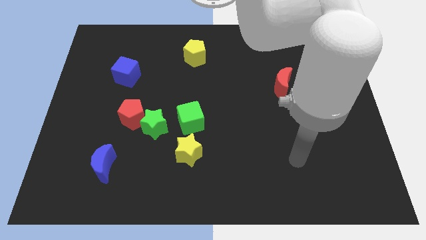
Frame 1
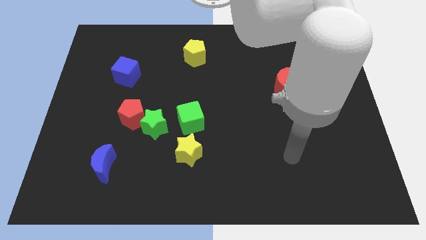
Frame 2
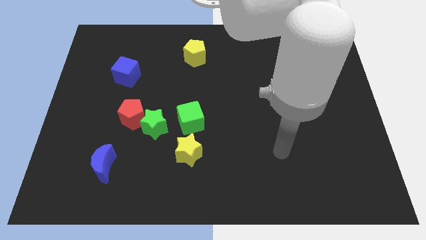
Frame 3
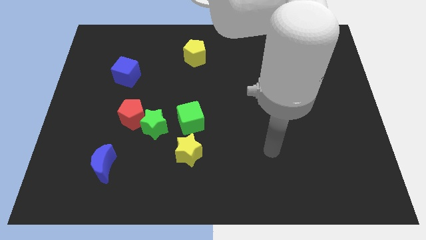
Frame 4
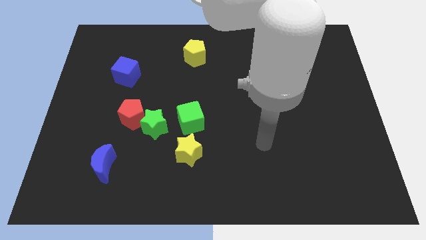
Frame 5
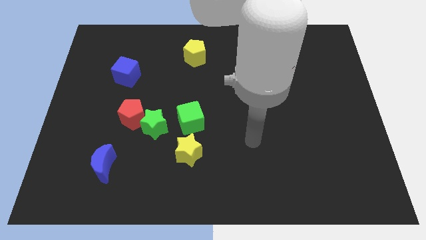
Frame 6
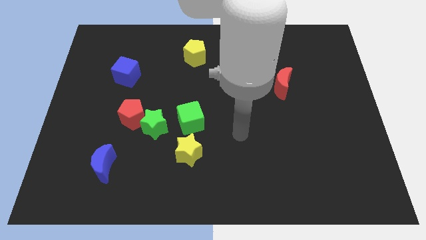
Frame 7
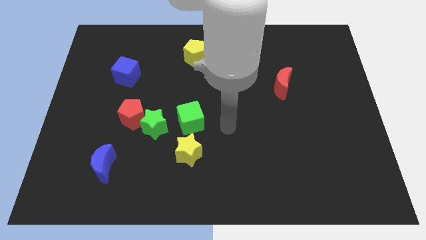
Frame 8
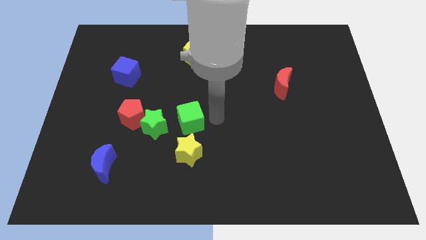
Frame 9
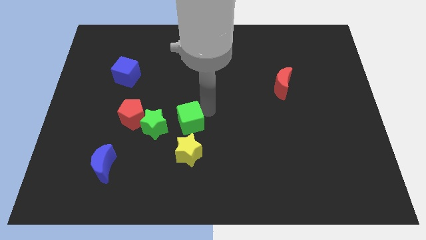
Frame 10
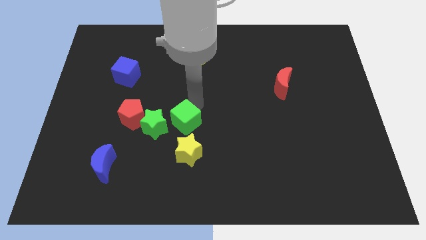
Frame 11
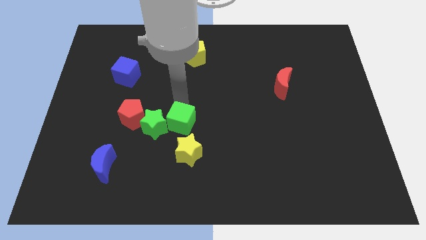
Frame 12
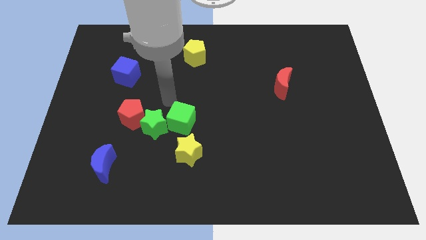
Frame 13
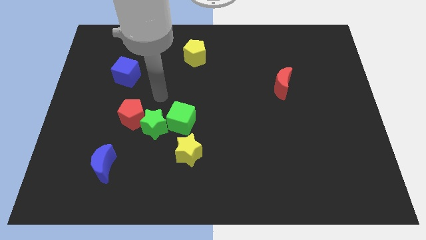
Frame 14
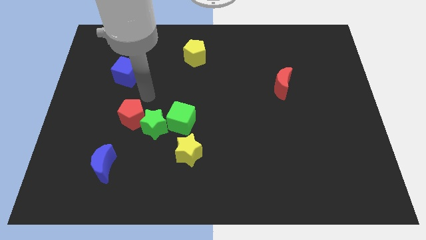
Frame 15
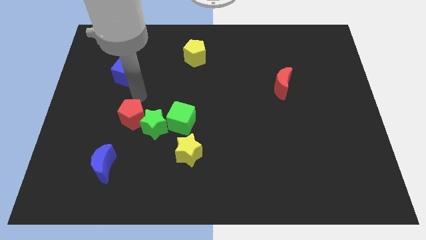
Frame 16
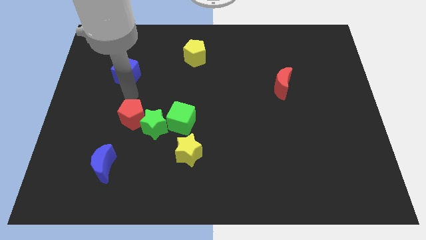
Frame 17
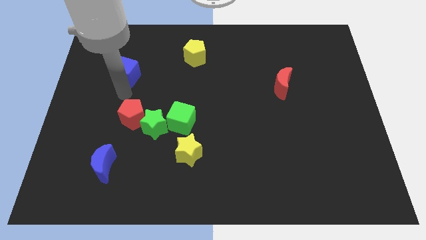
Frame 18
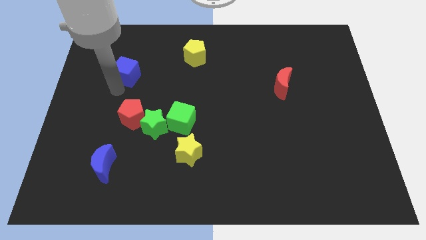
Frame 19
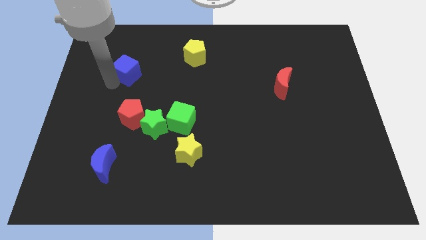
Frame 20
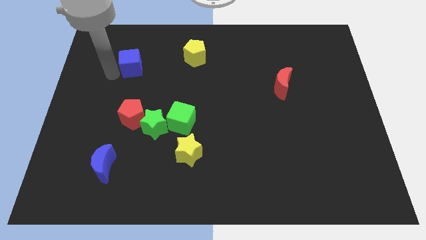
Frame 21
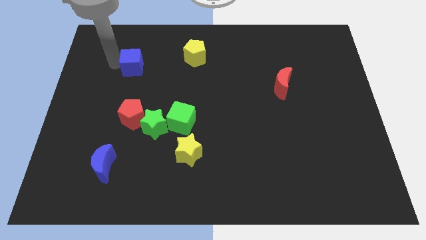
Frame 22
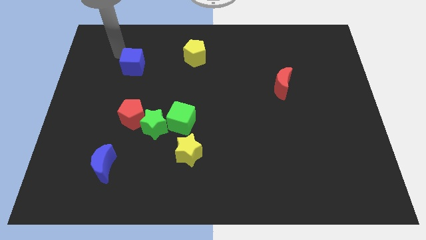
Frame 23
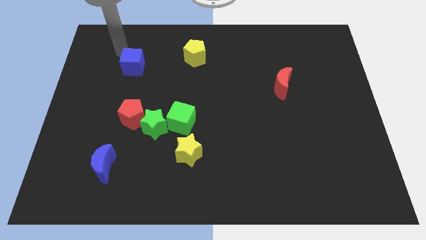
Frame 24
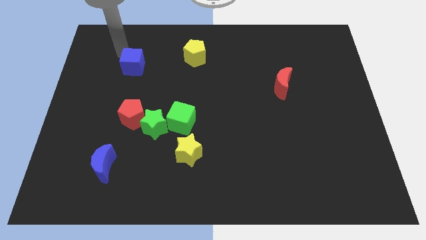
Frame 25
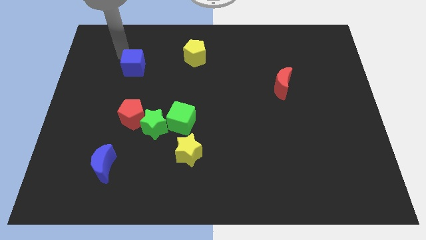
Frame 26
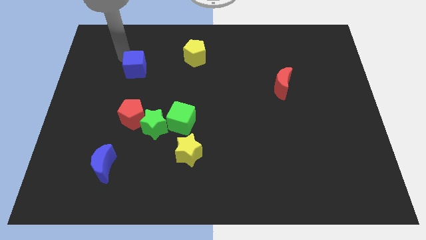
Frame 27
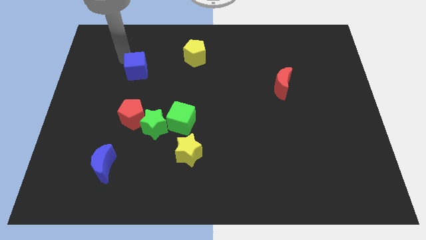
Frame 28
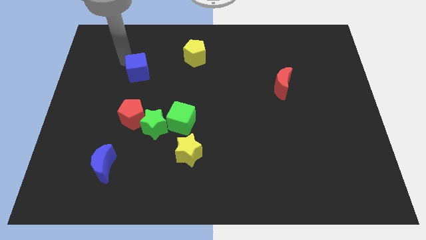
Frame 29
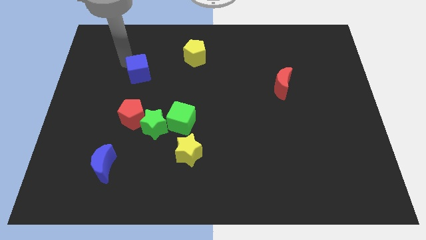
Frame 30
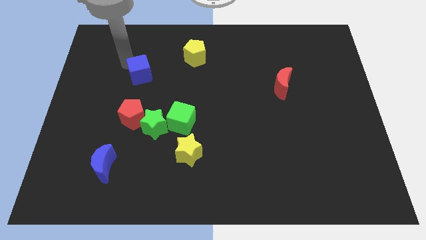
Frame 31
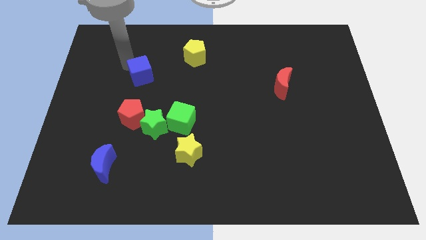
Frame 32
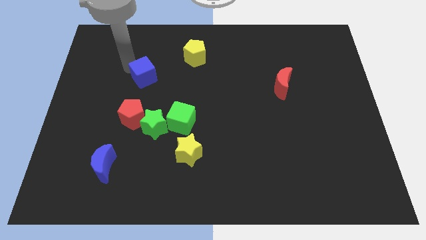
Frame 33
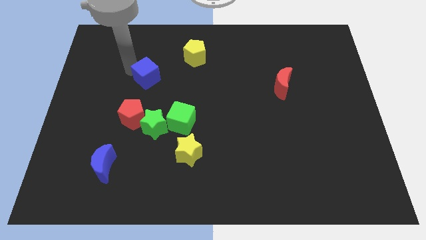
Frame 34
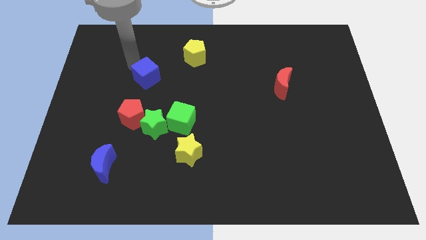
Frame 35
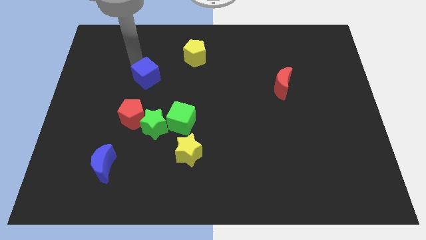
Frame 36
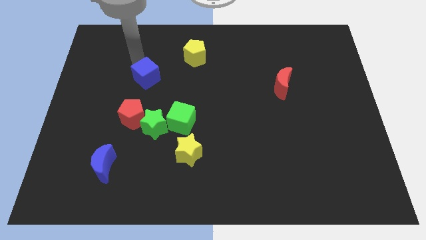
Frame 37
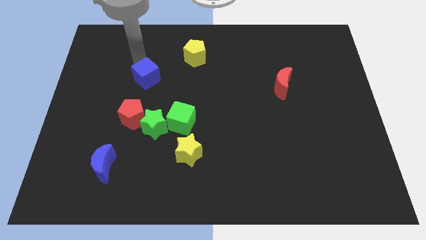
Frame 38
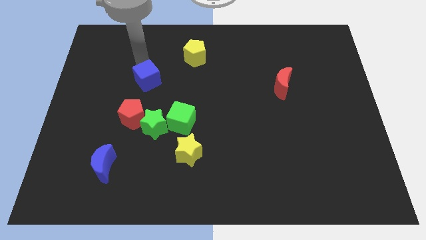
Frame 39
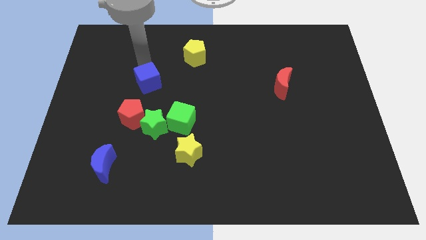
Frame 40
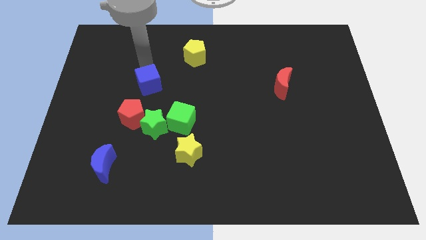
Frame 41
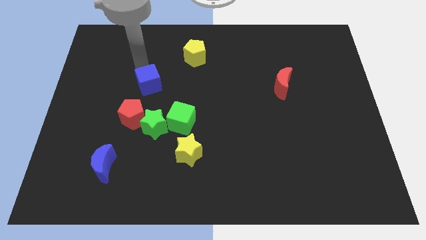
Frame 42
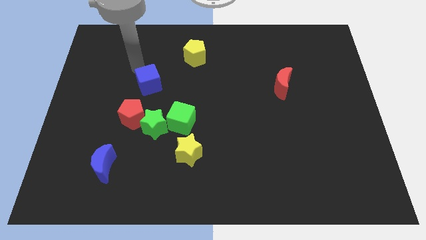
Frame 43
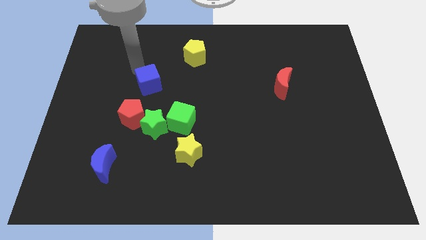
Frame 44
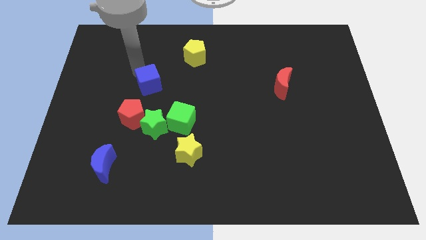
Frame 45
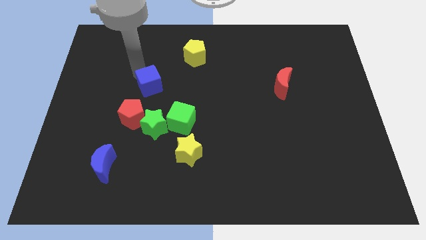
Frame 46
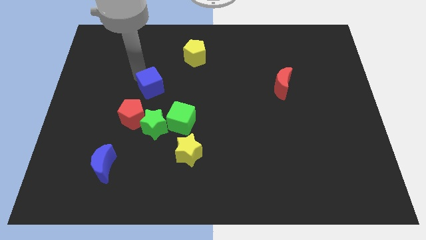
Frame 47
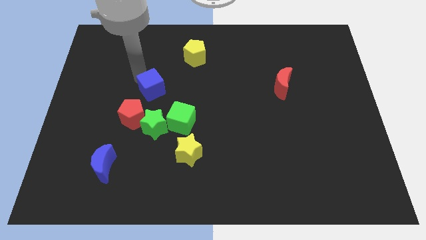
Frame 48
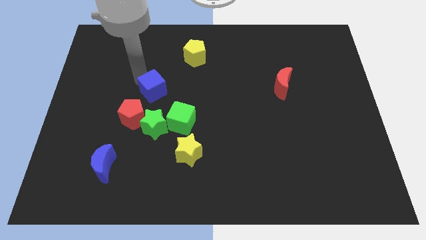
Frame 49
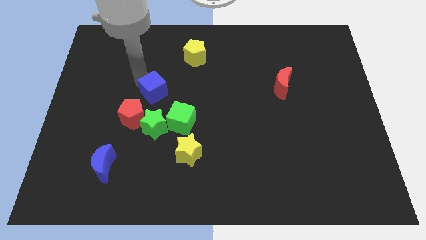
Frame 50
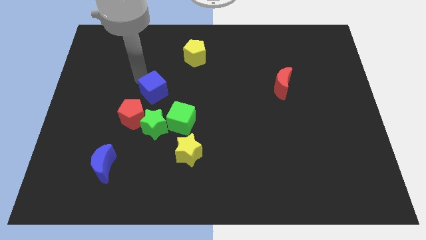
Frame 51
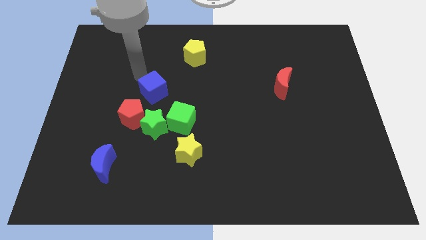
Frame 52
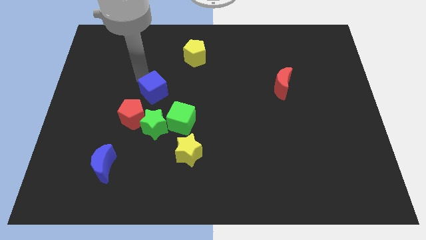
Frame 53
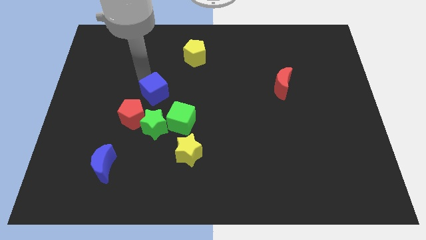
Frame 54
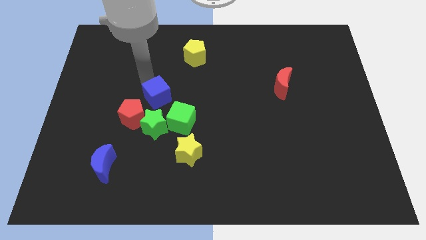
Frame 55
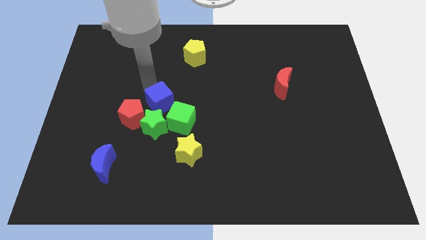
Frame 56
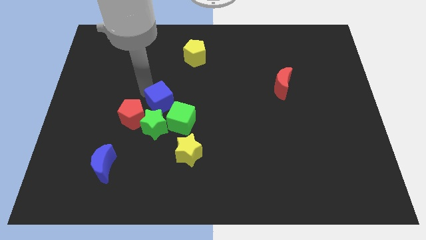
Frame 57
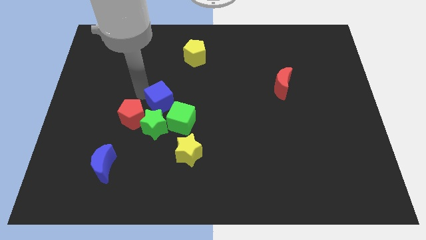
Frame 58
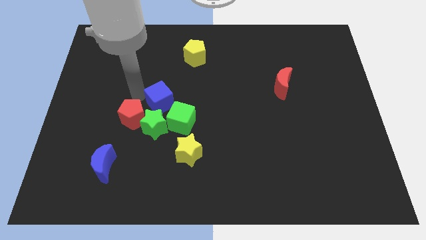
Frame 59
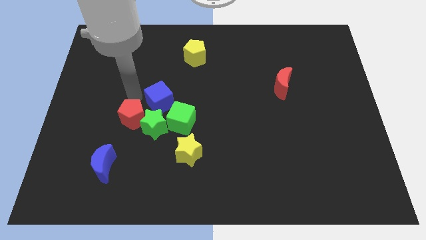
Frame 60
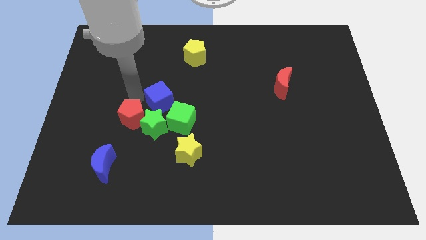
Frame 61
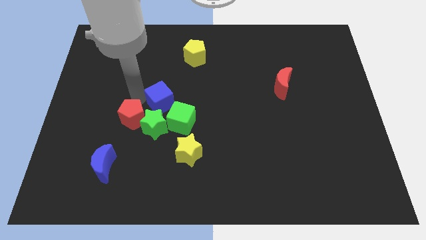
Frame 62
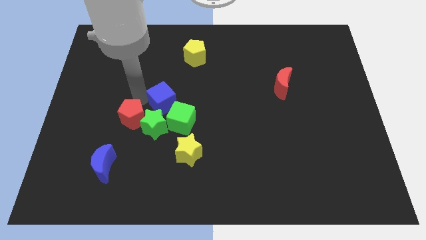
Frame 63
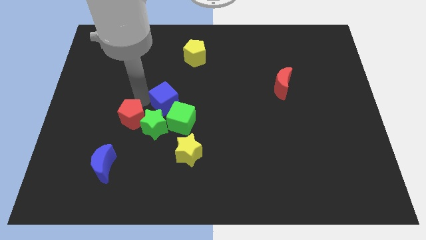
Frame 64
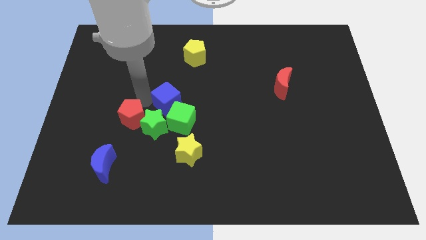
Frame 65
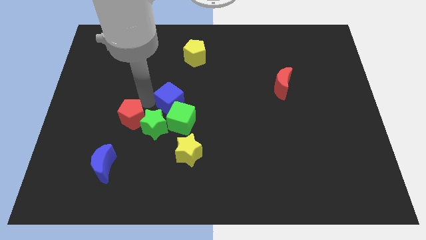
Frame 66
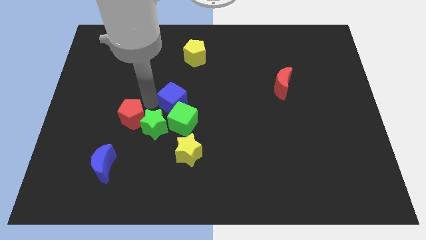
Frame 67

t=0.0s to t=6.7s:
slide the blue cube to the top side of the yellow star
